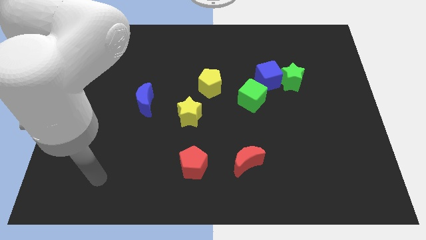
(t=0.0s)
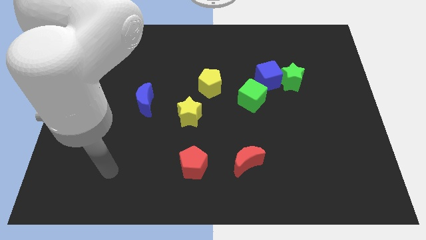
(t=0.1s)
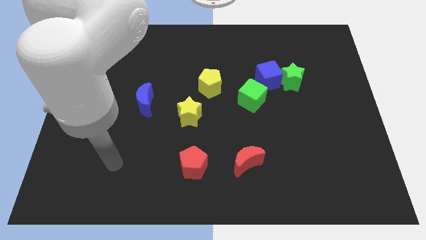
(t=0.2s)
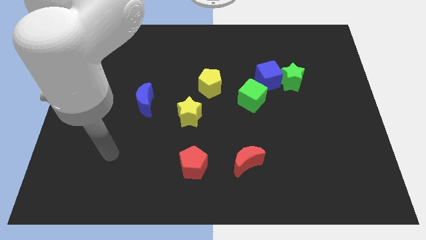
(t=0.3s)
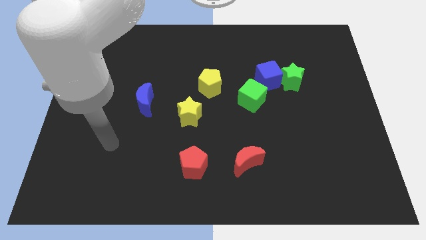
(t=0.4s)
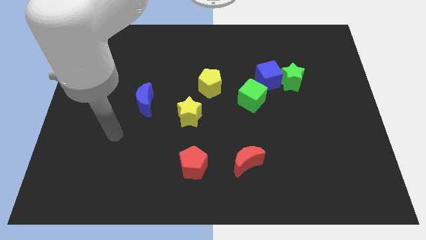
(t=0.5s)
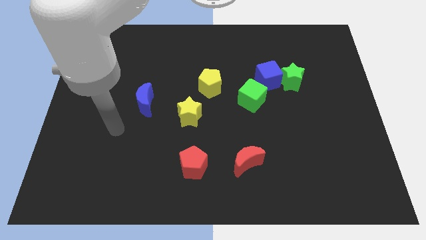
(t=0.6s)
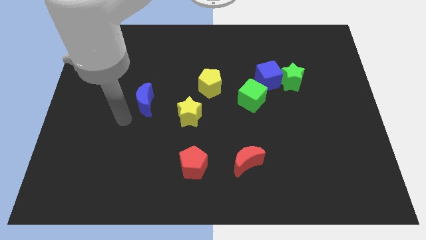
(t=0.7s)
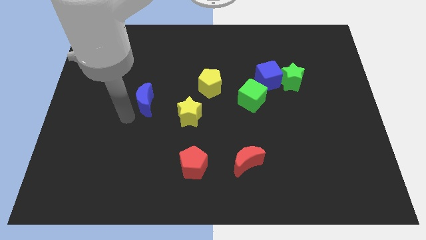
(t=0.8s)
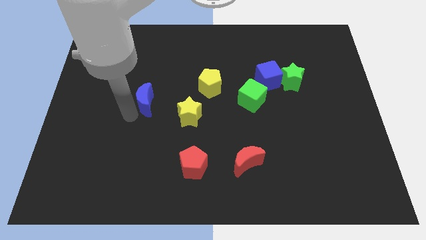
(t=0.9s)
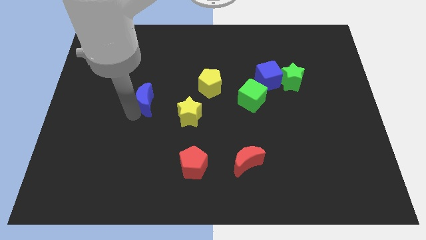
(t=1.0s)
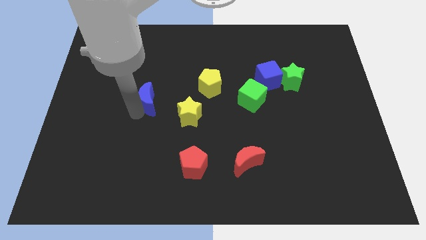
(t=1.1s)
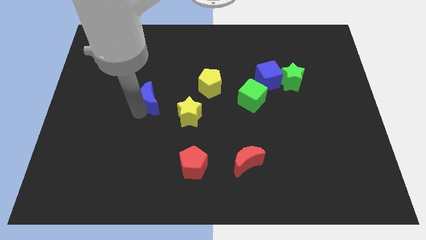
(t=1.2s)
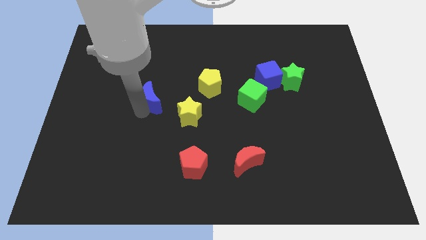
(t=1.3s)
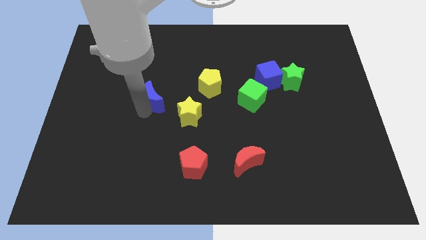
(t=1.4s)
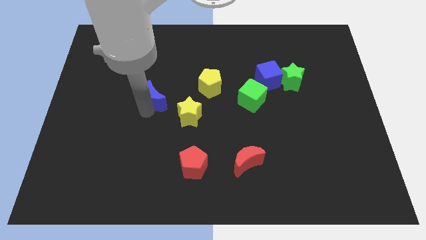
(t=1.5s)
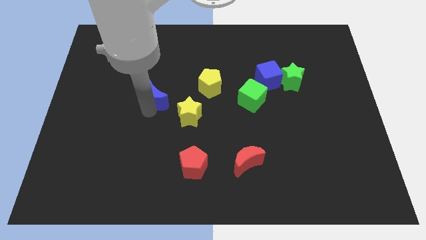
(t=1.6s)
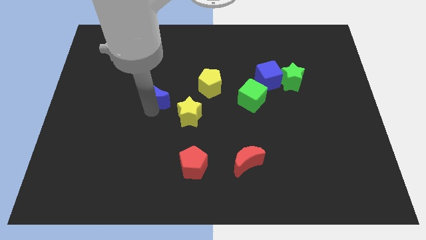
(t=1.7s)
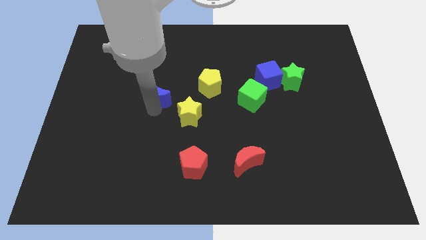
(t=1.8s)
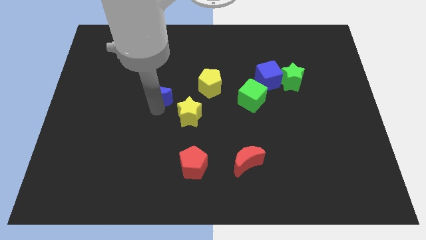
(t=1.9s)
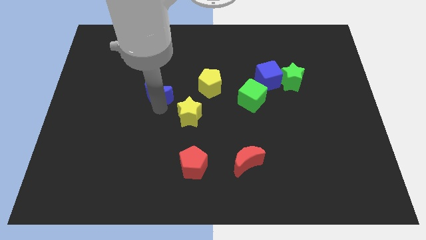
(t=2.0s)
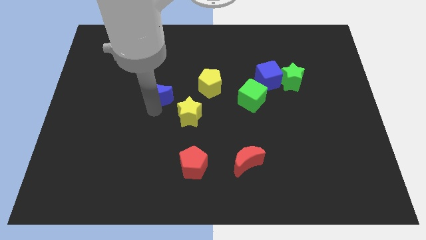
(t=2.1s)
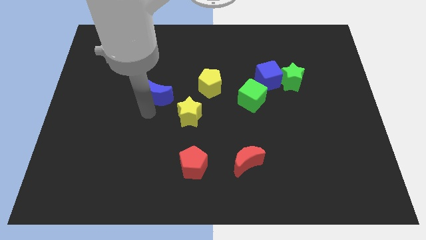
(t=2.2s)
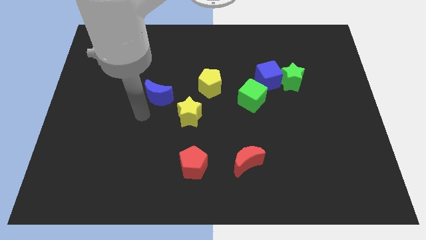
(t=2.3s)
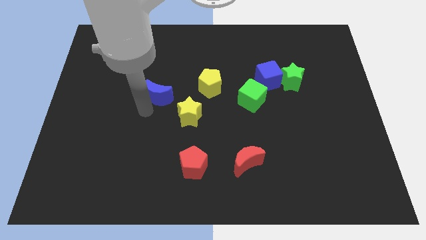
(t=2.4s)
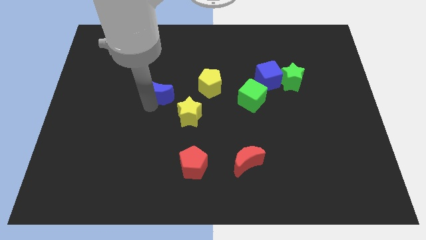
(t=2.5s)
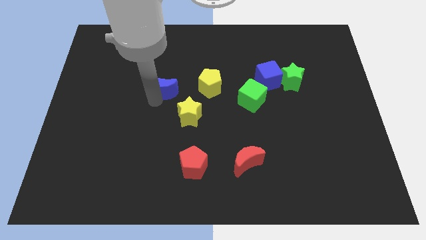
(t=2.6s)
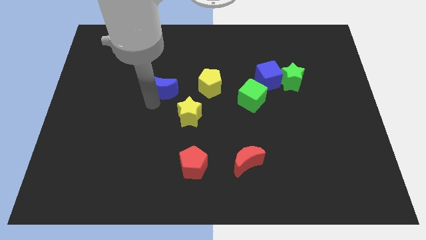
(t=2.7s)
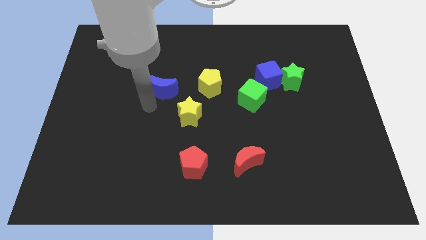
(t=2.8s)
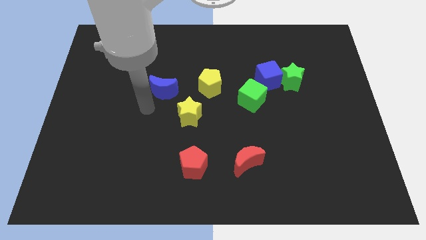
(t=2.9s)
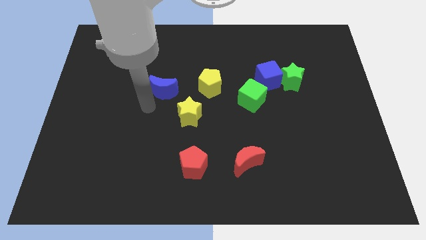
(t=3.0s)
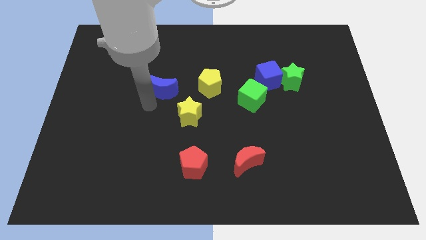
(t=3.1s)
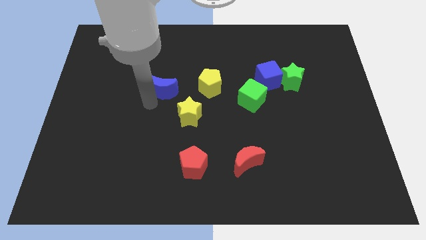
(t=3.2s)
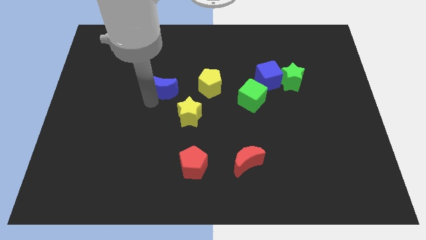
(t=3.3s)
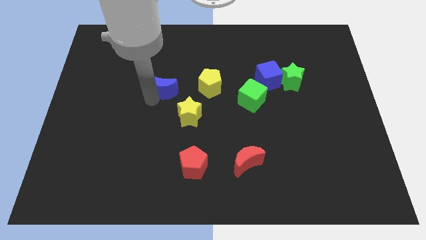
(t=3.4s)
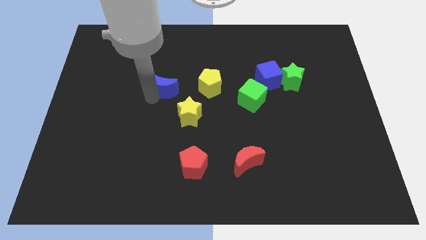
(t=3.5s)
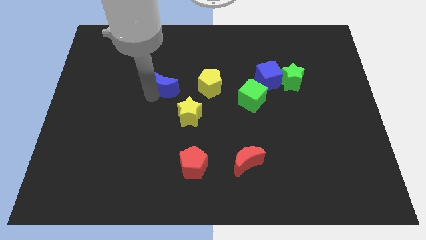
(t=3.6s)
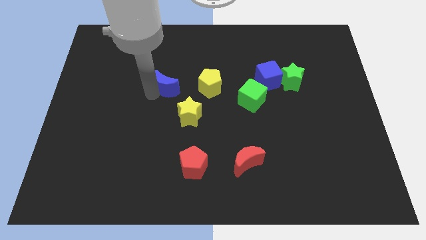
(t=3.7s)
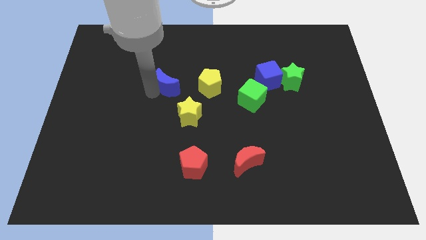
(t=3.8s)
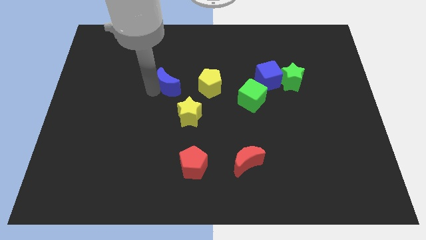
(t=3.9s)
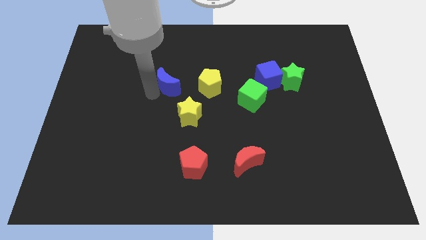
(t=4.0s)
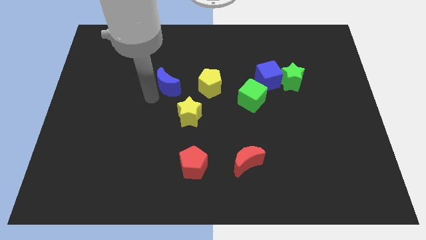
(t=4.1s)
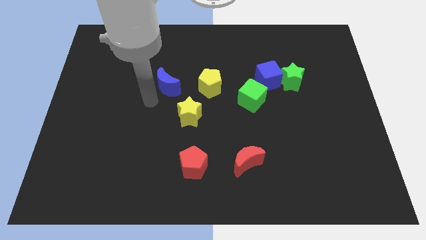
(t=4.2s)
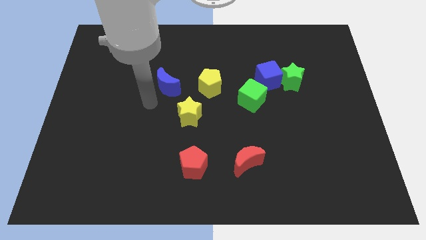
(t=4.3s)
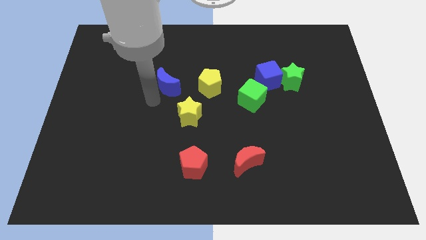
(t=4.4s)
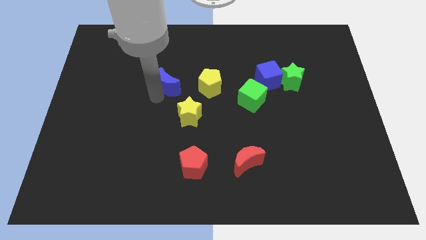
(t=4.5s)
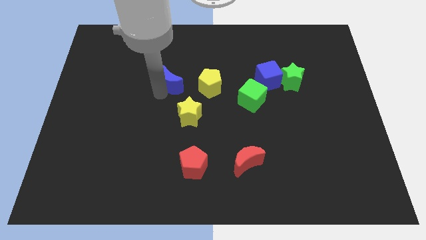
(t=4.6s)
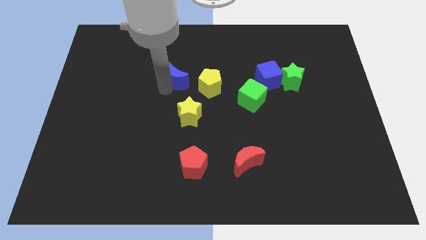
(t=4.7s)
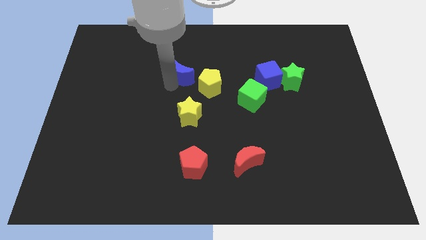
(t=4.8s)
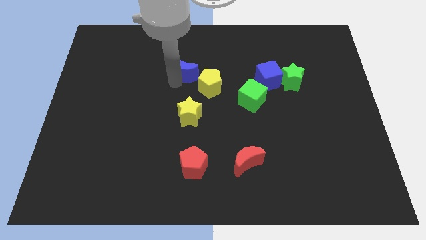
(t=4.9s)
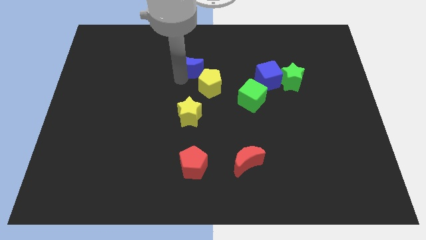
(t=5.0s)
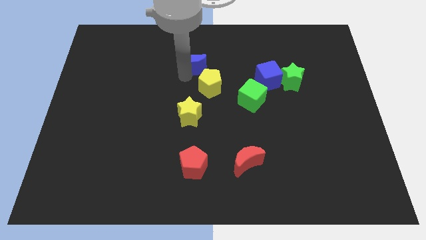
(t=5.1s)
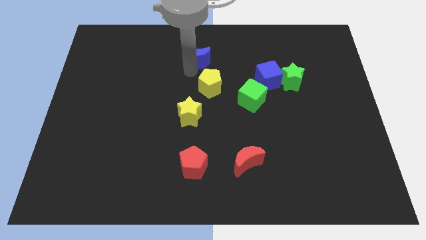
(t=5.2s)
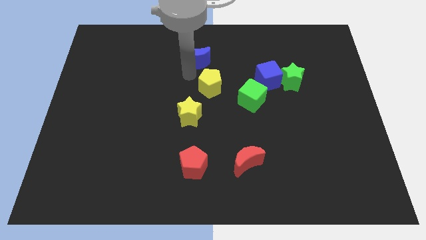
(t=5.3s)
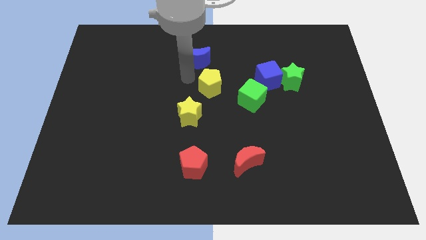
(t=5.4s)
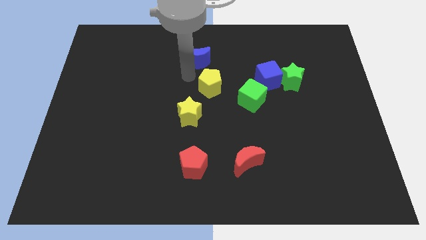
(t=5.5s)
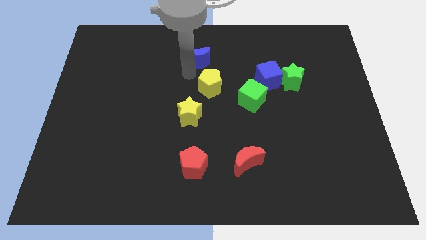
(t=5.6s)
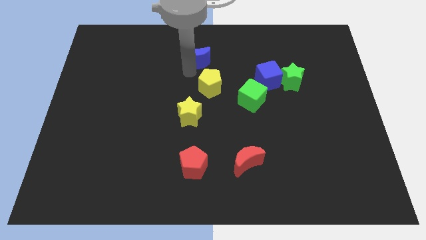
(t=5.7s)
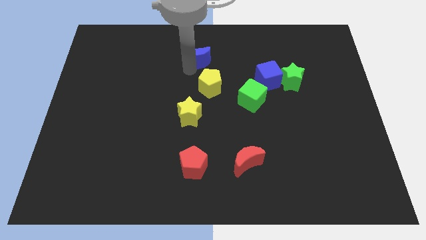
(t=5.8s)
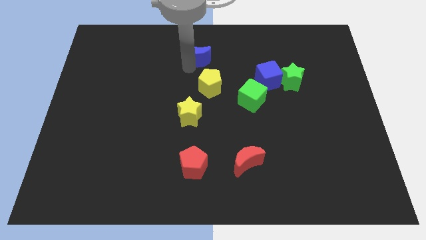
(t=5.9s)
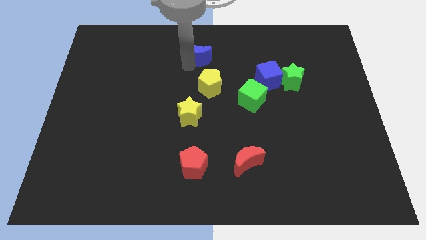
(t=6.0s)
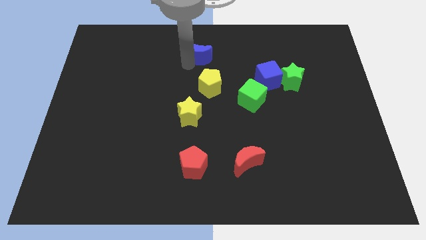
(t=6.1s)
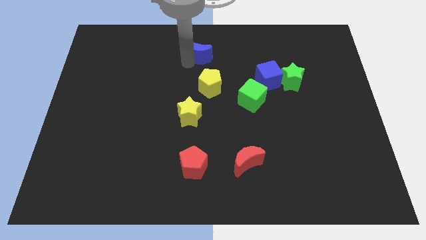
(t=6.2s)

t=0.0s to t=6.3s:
push the blue moon to the top side

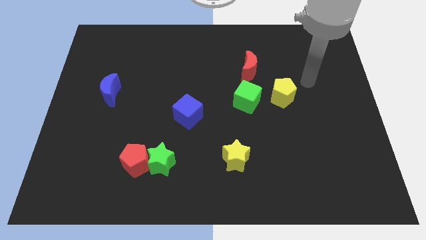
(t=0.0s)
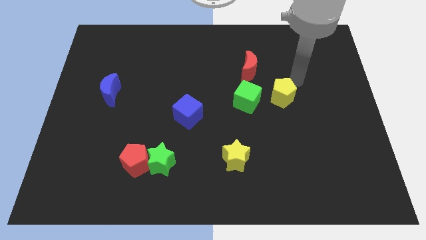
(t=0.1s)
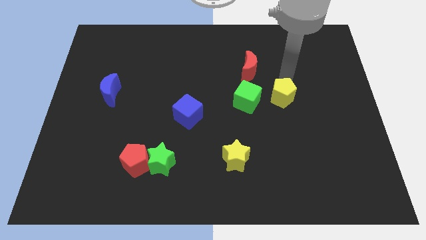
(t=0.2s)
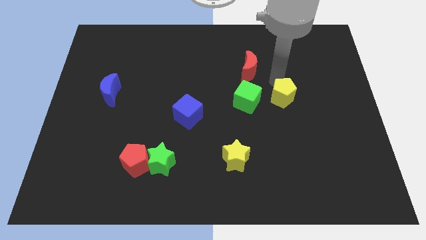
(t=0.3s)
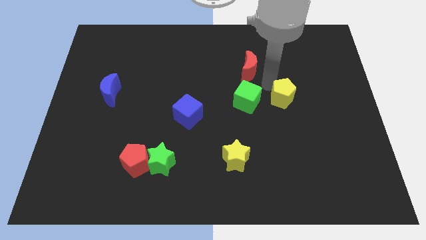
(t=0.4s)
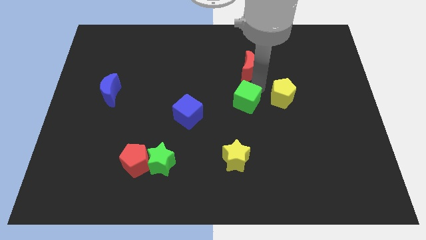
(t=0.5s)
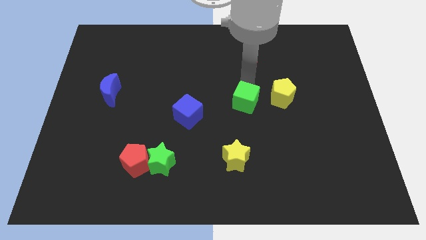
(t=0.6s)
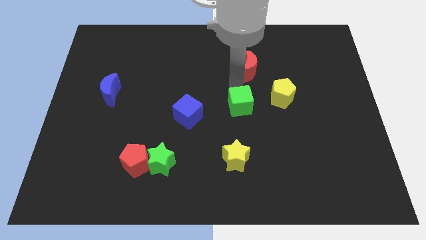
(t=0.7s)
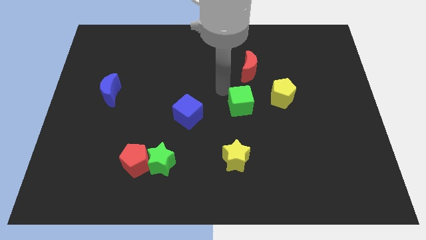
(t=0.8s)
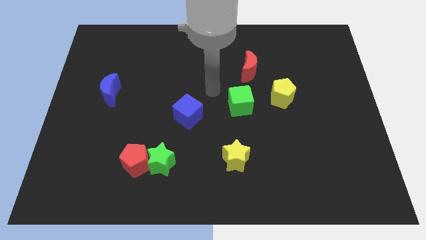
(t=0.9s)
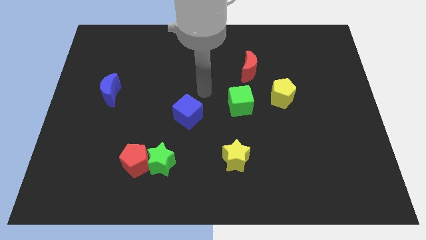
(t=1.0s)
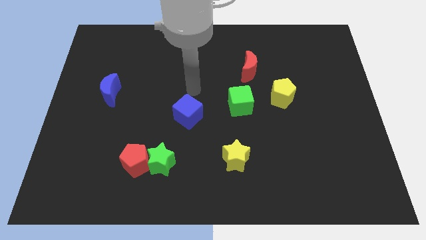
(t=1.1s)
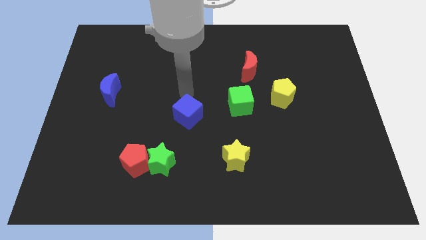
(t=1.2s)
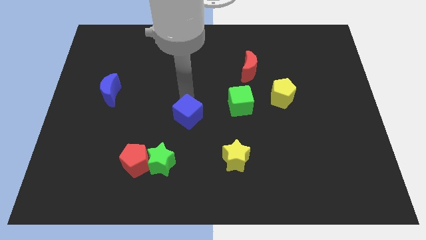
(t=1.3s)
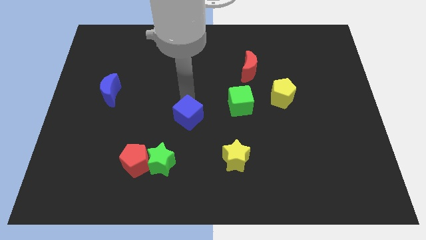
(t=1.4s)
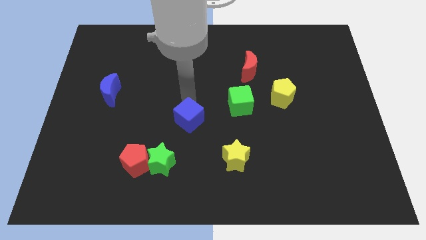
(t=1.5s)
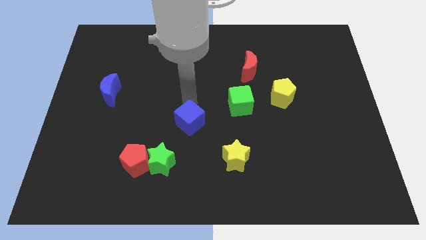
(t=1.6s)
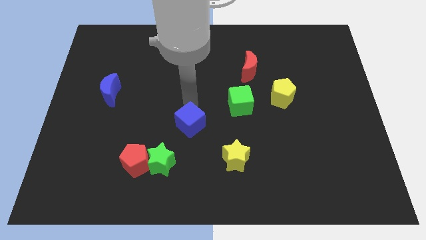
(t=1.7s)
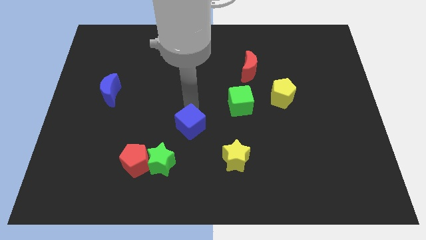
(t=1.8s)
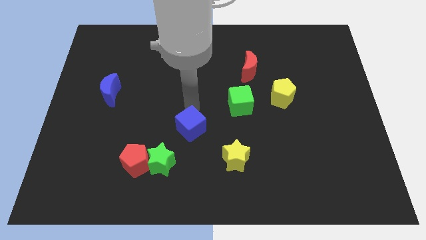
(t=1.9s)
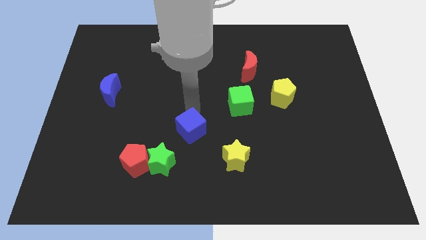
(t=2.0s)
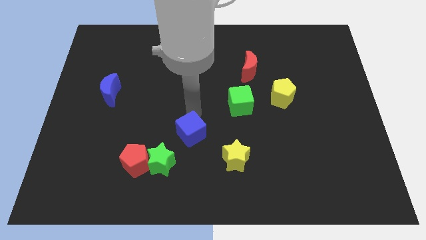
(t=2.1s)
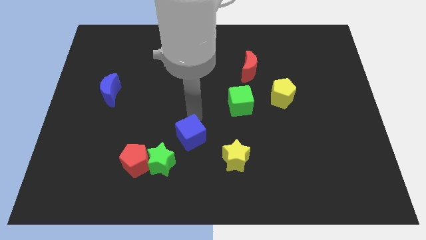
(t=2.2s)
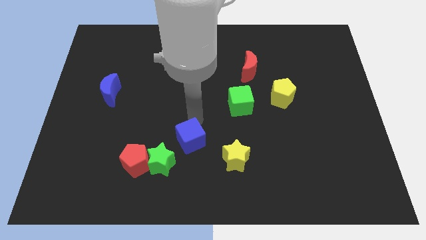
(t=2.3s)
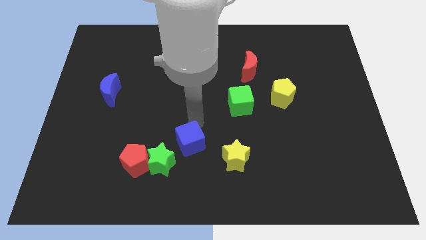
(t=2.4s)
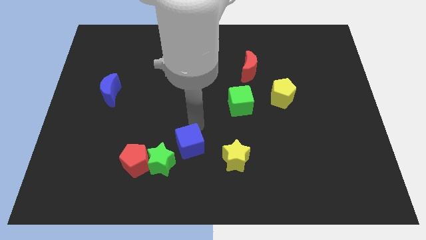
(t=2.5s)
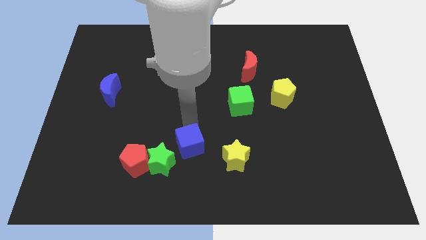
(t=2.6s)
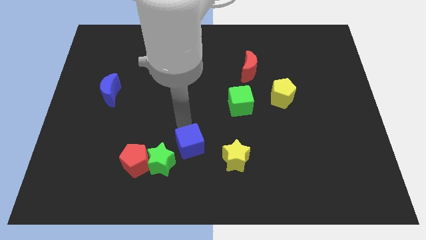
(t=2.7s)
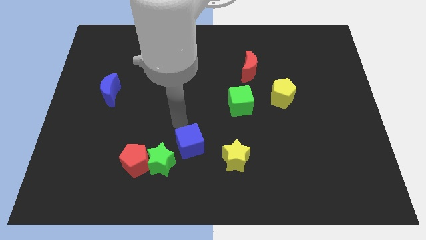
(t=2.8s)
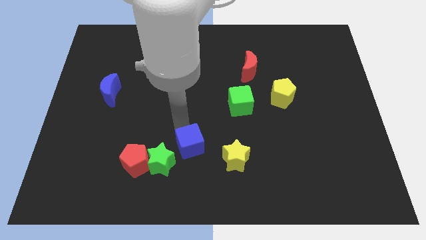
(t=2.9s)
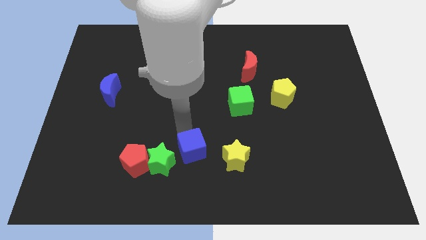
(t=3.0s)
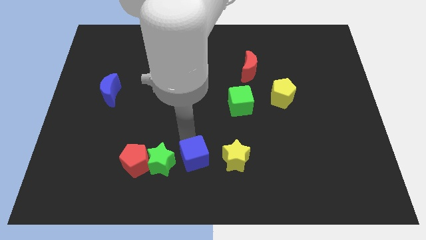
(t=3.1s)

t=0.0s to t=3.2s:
move the blue cube to the bottom
